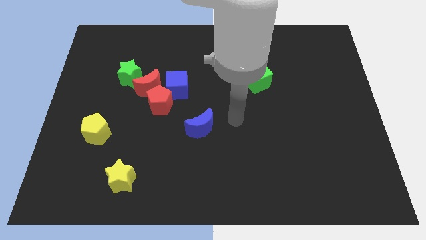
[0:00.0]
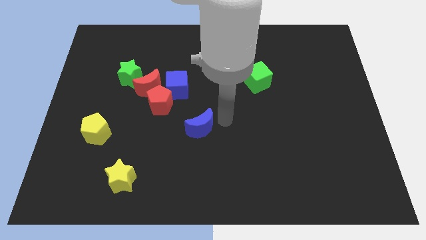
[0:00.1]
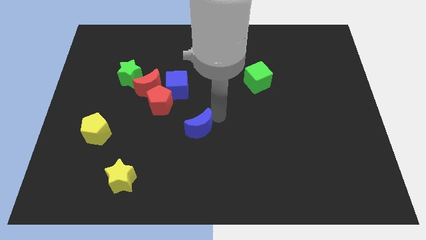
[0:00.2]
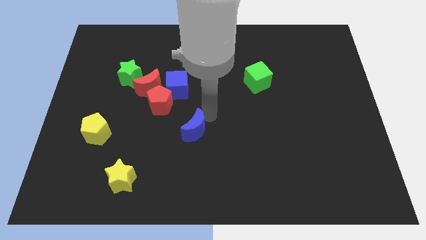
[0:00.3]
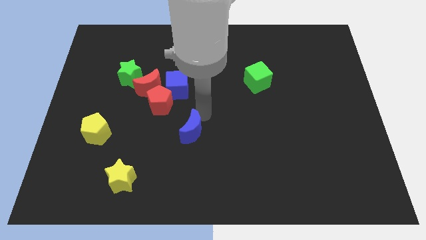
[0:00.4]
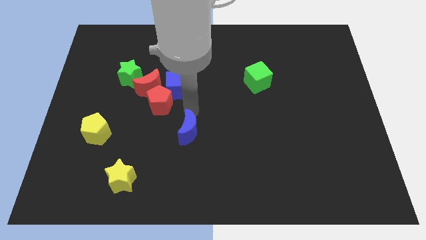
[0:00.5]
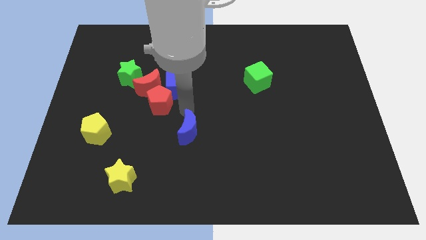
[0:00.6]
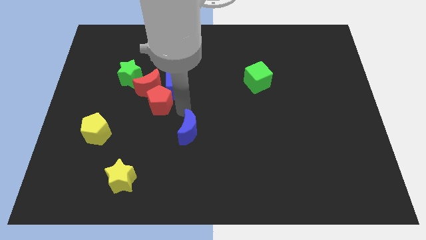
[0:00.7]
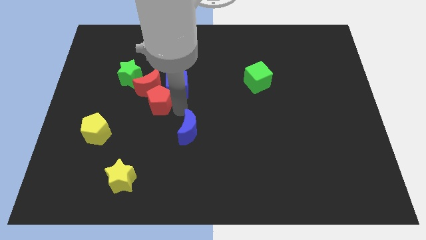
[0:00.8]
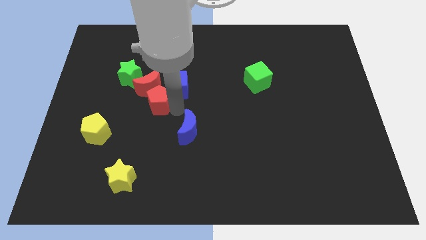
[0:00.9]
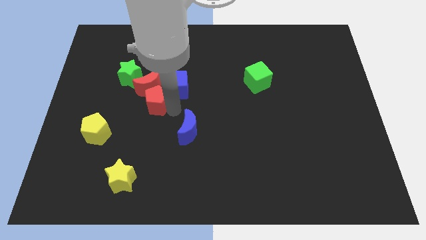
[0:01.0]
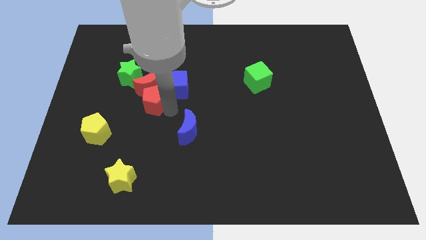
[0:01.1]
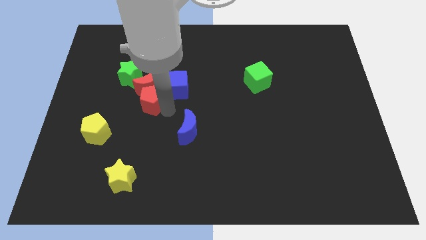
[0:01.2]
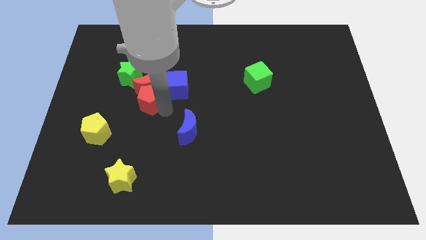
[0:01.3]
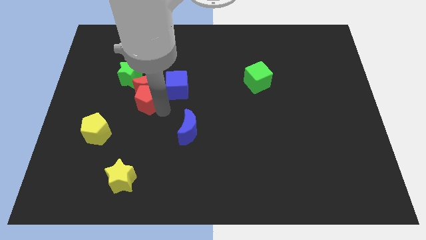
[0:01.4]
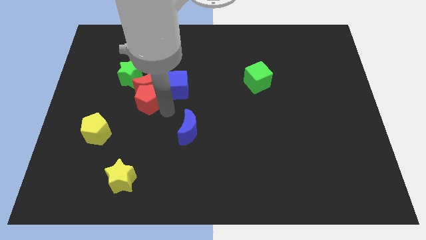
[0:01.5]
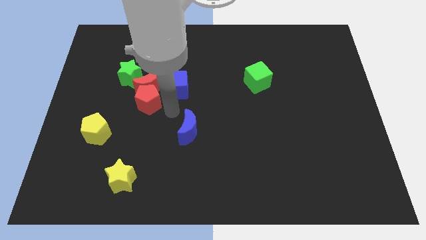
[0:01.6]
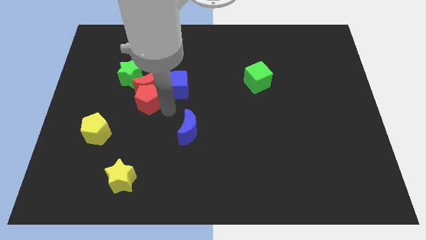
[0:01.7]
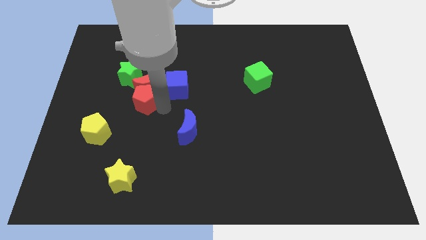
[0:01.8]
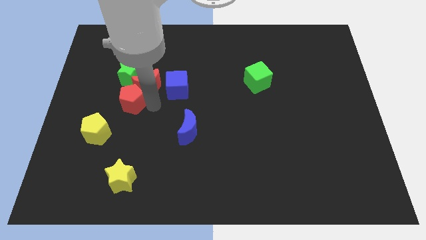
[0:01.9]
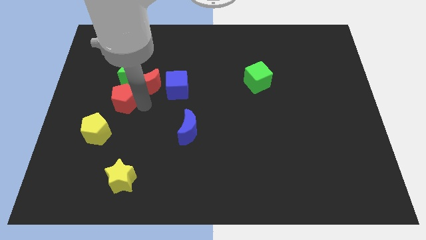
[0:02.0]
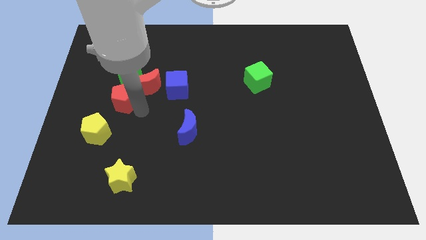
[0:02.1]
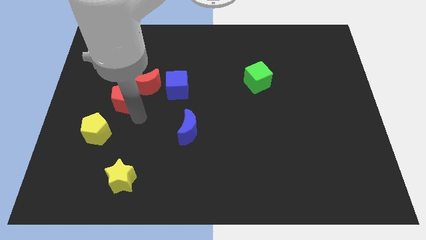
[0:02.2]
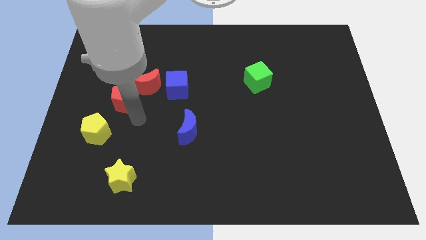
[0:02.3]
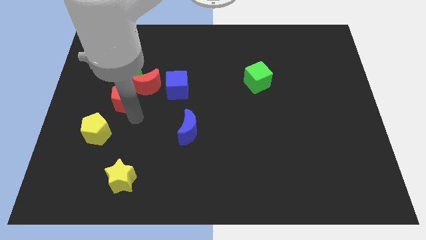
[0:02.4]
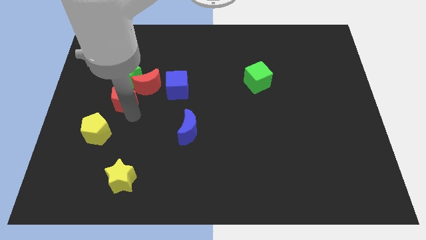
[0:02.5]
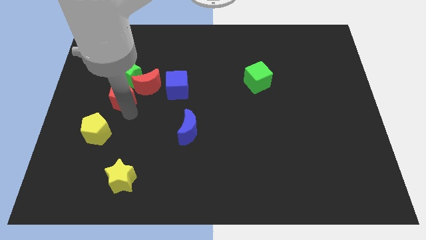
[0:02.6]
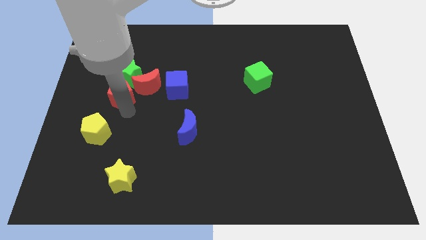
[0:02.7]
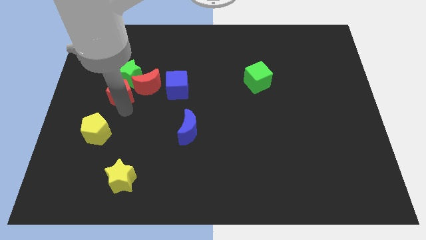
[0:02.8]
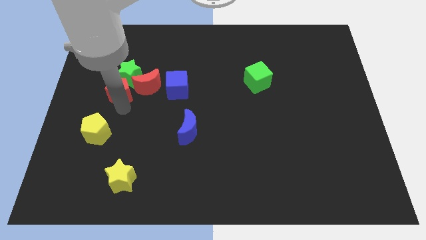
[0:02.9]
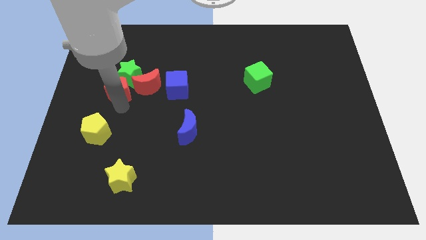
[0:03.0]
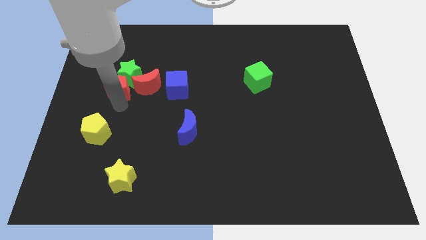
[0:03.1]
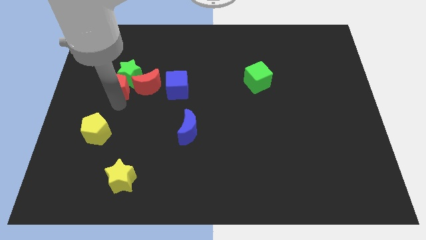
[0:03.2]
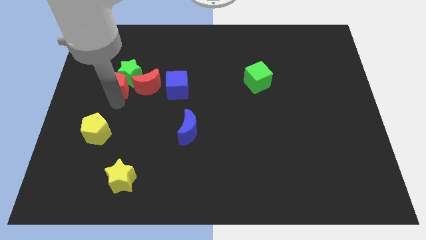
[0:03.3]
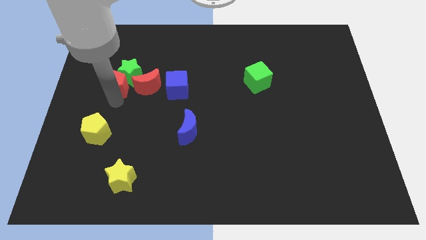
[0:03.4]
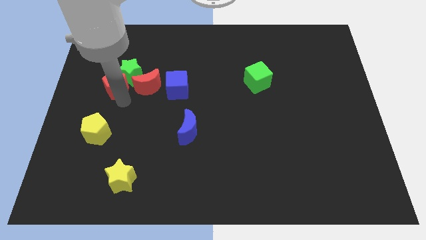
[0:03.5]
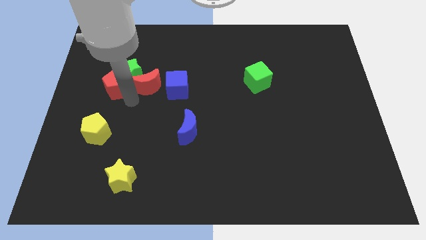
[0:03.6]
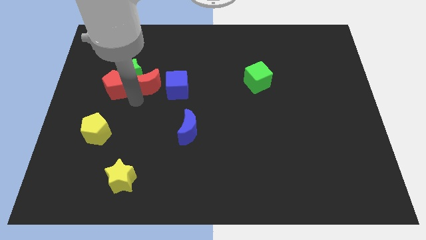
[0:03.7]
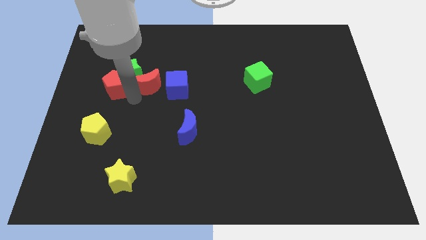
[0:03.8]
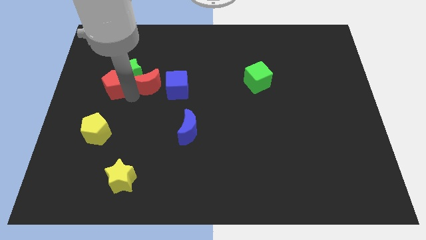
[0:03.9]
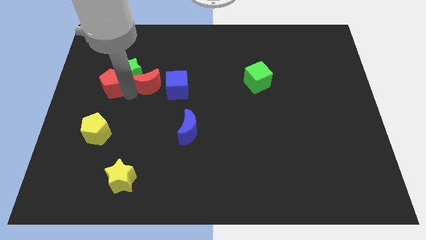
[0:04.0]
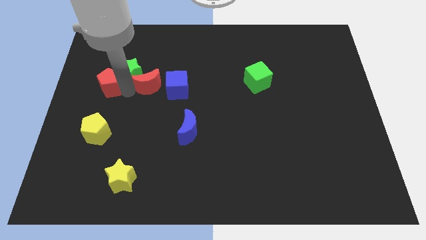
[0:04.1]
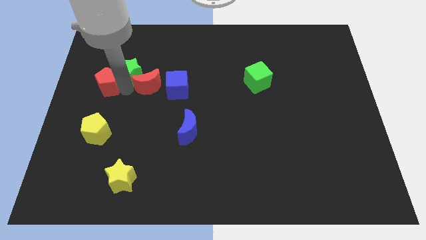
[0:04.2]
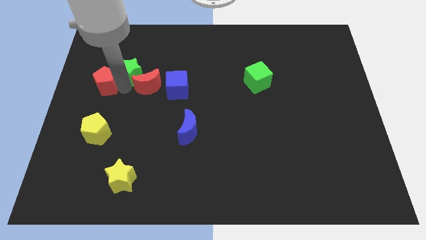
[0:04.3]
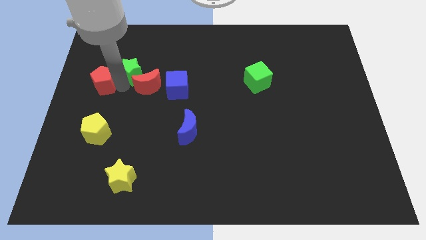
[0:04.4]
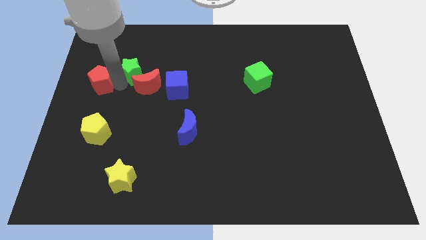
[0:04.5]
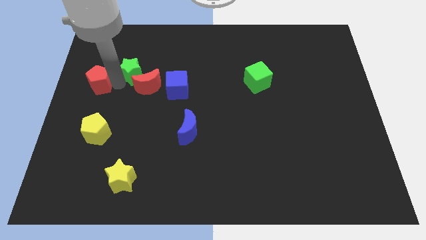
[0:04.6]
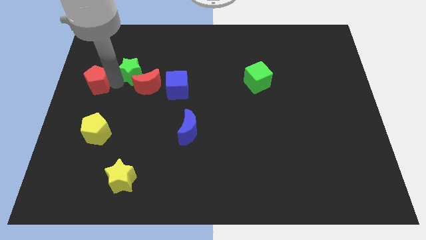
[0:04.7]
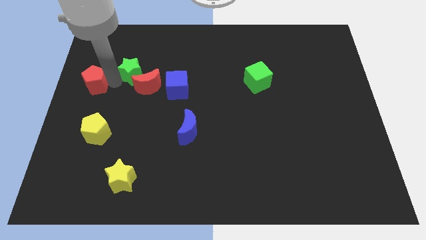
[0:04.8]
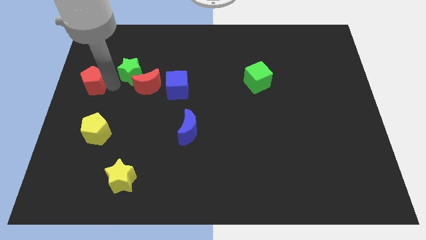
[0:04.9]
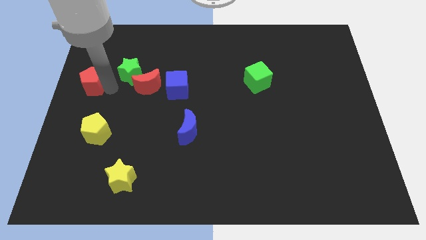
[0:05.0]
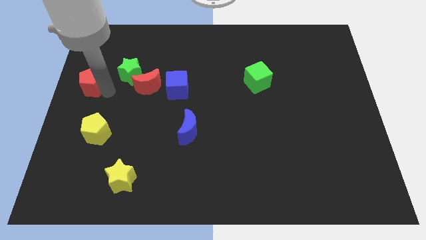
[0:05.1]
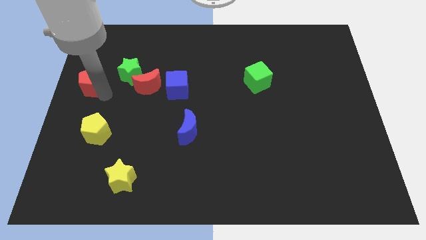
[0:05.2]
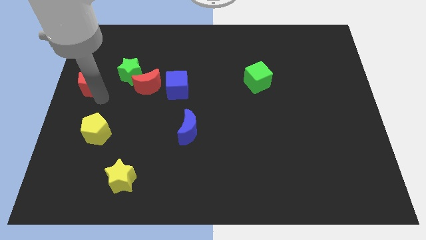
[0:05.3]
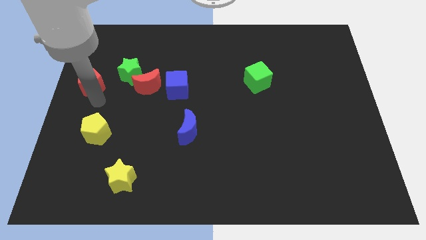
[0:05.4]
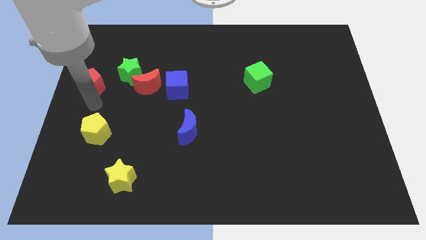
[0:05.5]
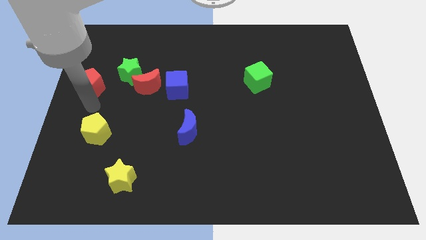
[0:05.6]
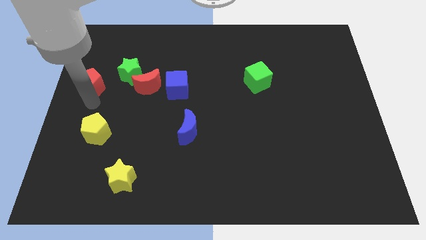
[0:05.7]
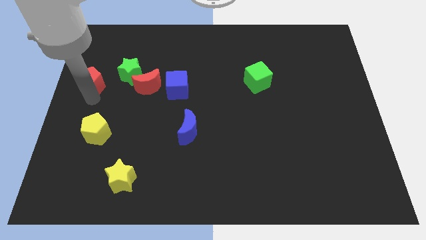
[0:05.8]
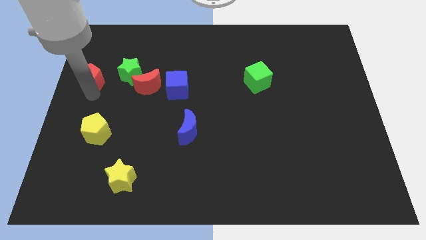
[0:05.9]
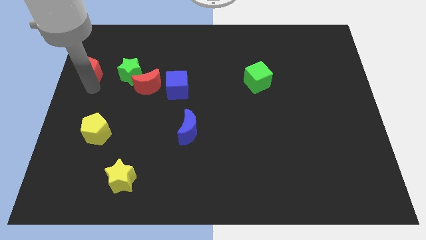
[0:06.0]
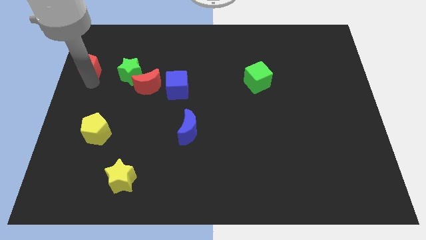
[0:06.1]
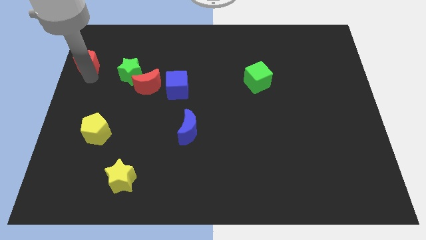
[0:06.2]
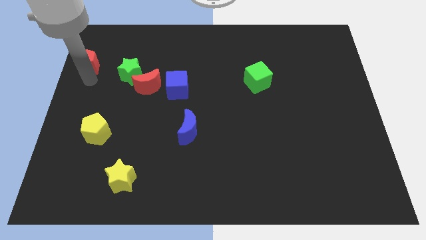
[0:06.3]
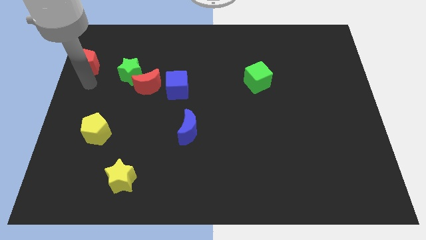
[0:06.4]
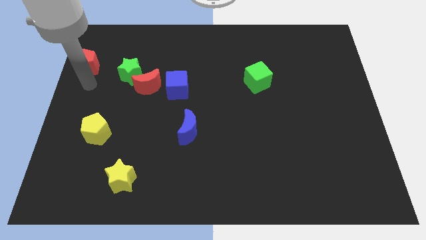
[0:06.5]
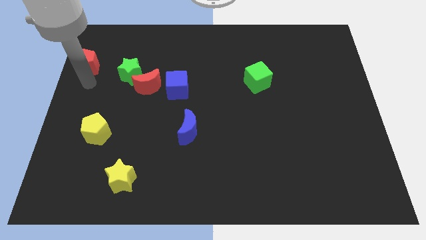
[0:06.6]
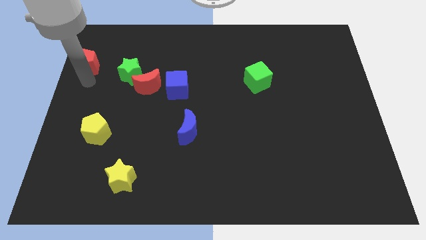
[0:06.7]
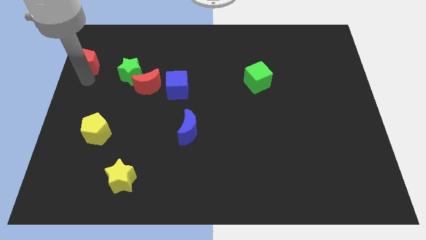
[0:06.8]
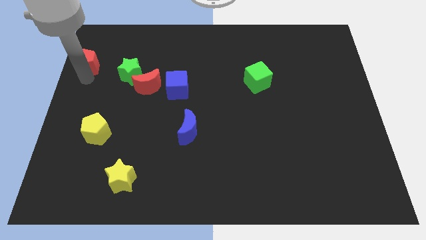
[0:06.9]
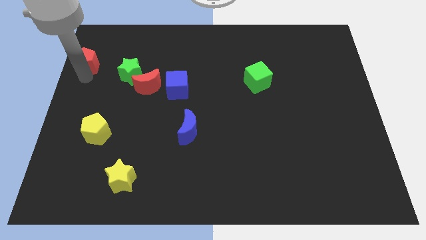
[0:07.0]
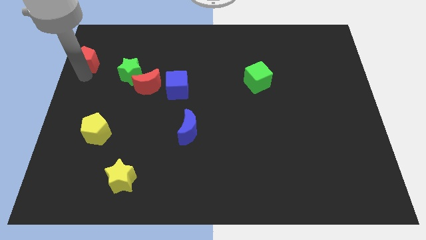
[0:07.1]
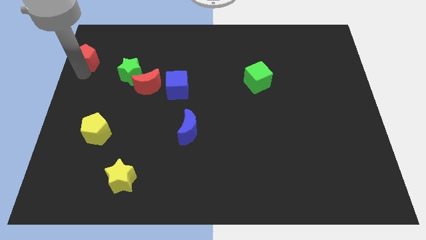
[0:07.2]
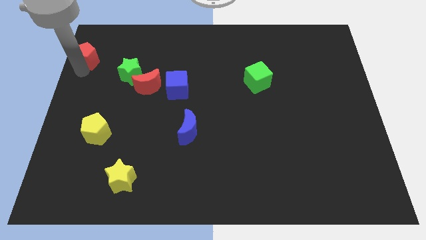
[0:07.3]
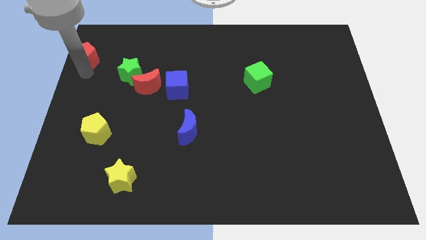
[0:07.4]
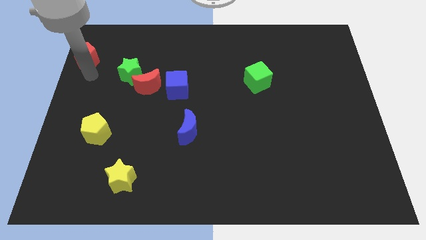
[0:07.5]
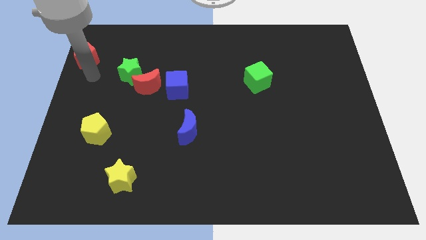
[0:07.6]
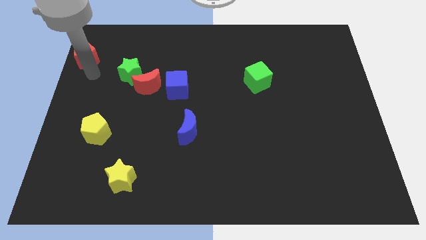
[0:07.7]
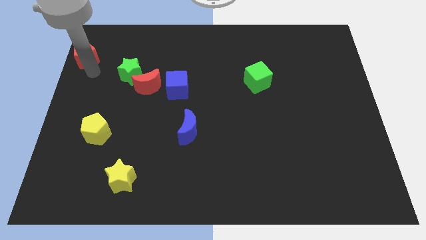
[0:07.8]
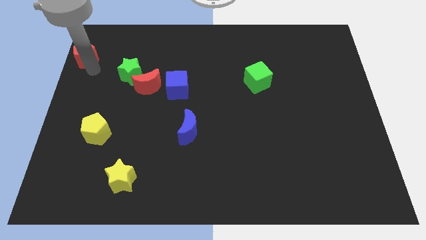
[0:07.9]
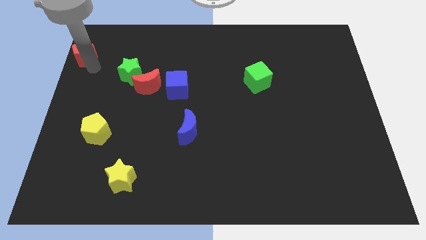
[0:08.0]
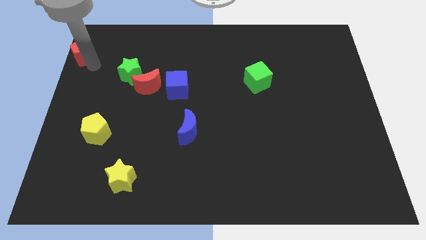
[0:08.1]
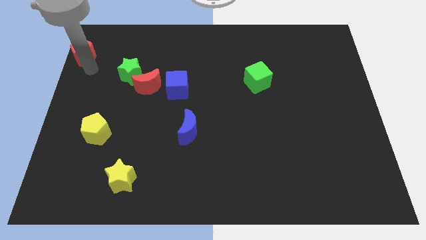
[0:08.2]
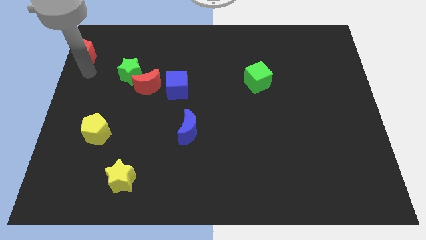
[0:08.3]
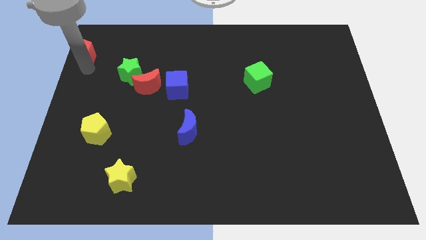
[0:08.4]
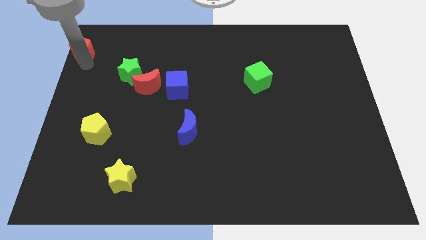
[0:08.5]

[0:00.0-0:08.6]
push the red pentagon to the upper left corner
